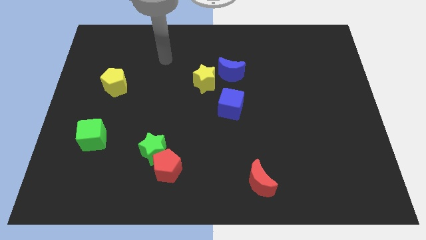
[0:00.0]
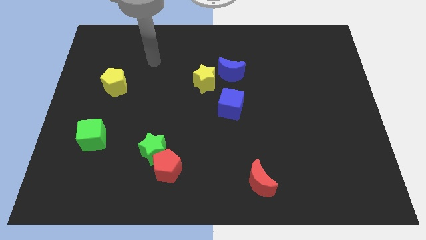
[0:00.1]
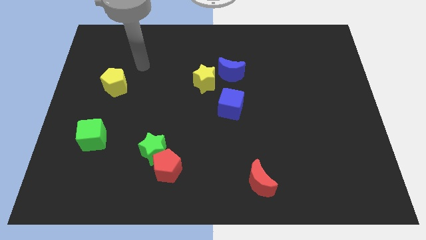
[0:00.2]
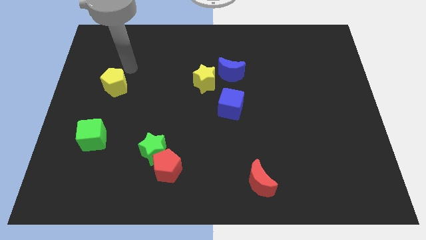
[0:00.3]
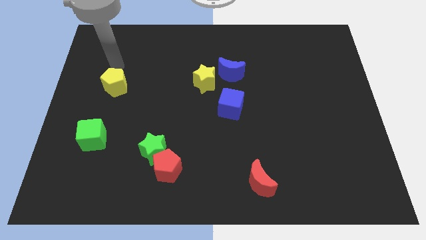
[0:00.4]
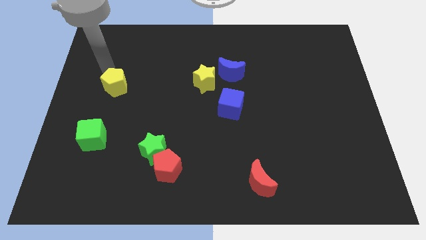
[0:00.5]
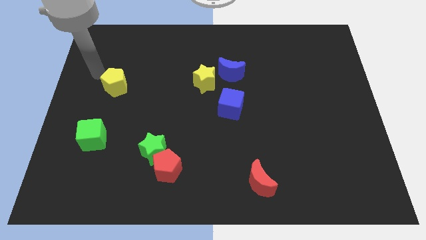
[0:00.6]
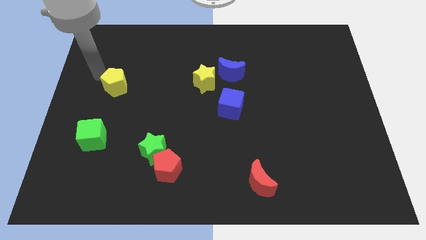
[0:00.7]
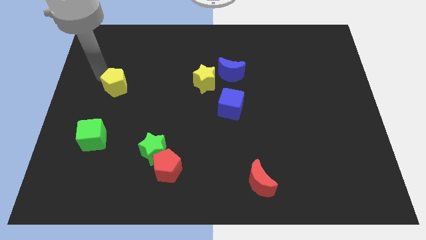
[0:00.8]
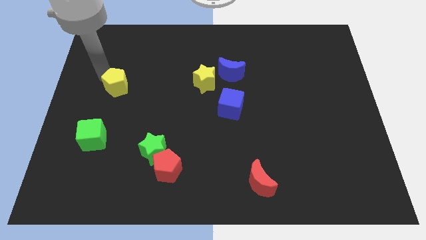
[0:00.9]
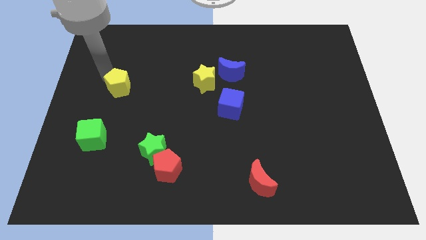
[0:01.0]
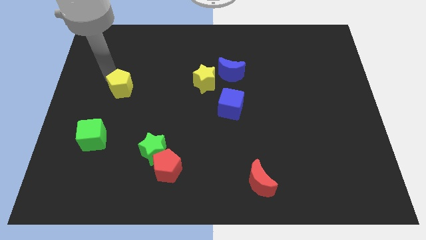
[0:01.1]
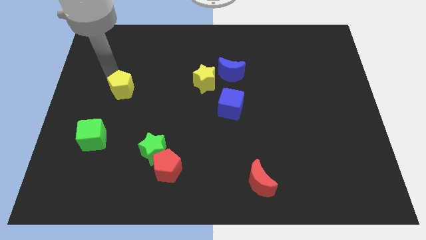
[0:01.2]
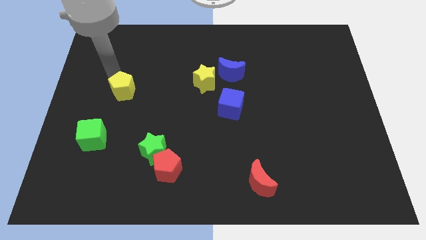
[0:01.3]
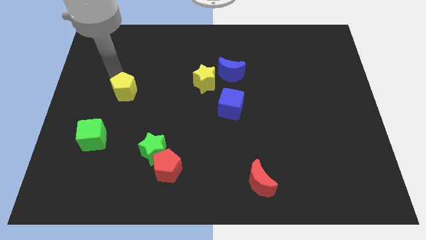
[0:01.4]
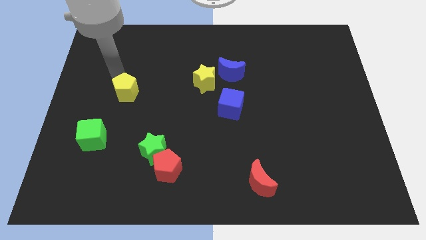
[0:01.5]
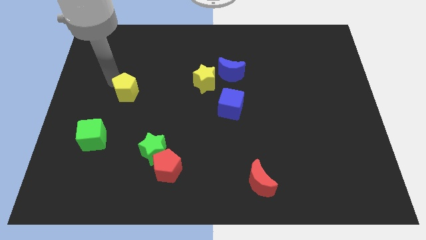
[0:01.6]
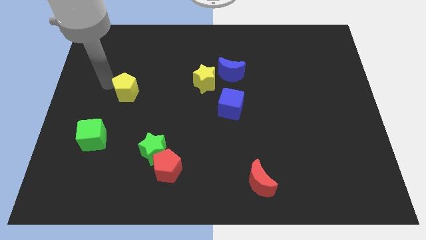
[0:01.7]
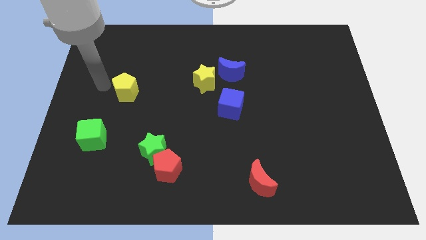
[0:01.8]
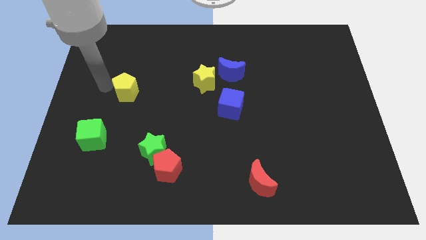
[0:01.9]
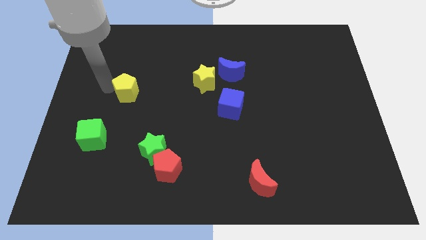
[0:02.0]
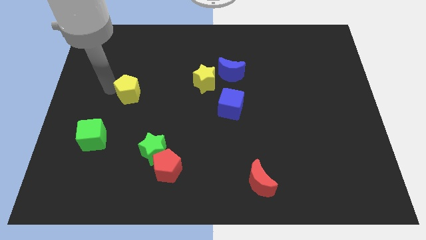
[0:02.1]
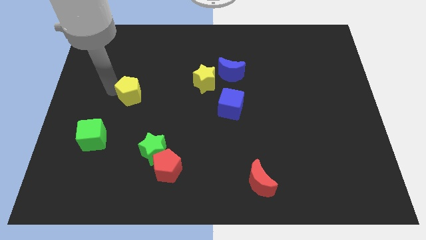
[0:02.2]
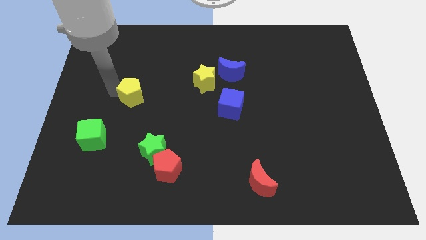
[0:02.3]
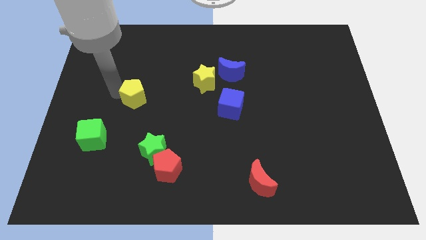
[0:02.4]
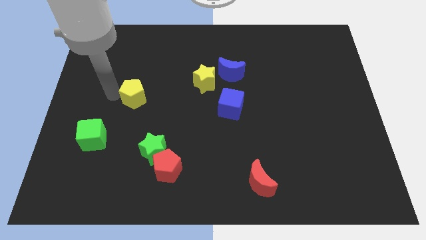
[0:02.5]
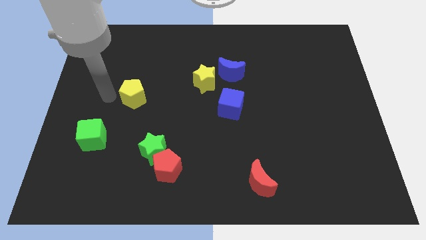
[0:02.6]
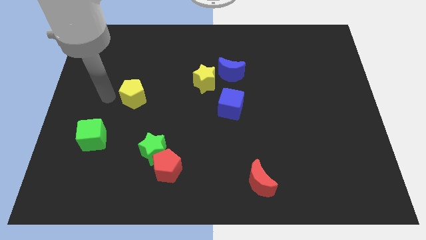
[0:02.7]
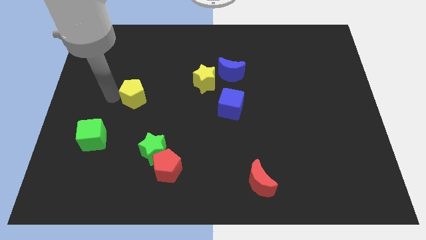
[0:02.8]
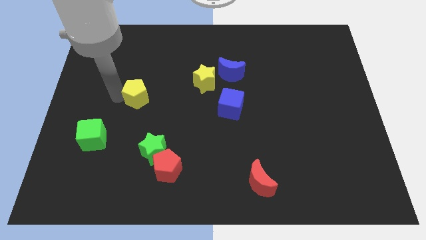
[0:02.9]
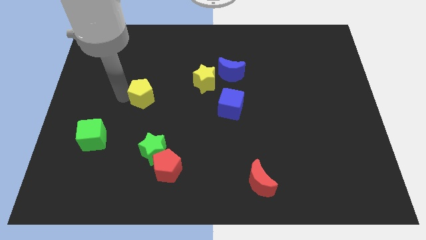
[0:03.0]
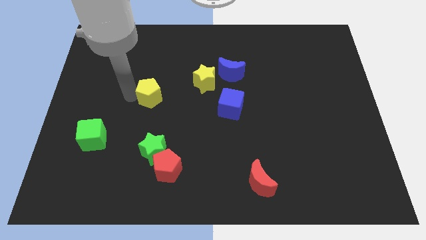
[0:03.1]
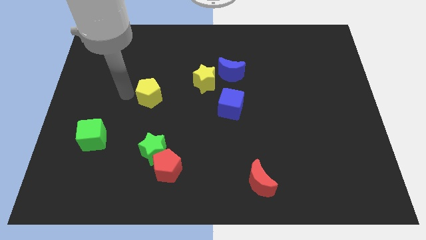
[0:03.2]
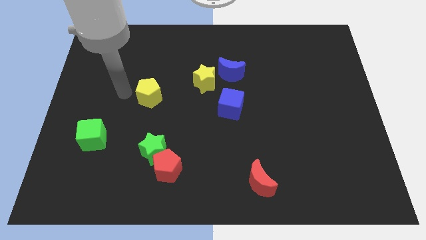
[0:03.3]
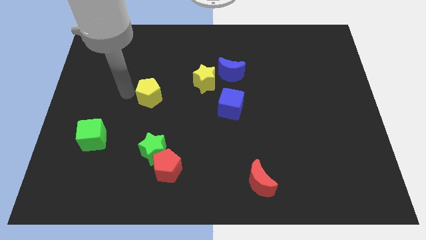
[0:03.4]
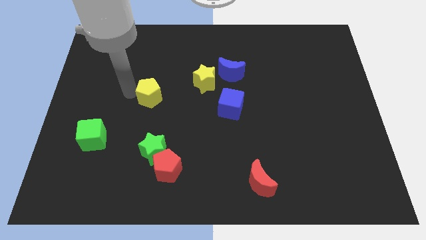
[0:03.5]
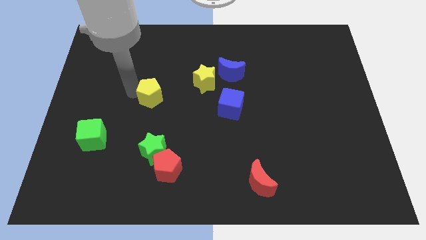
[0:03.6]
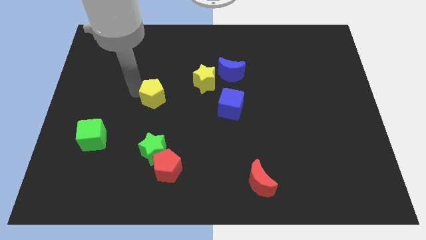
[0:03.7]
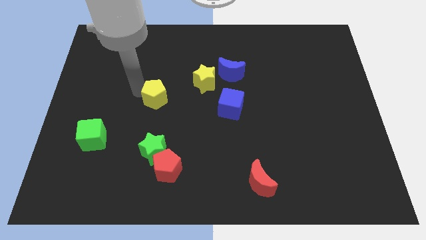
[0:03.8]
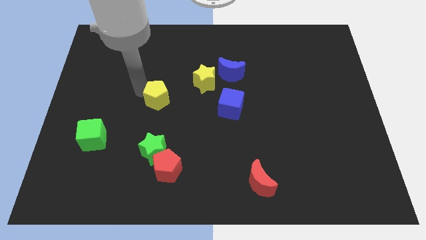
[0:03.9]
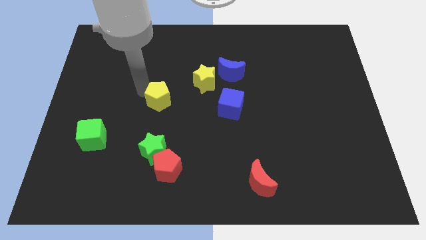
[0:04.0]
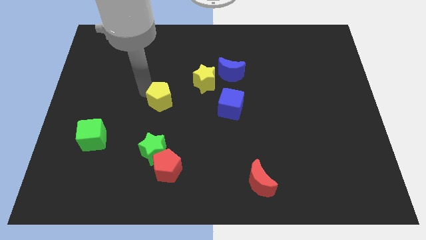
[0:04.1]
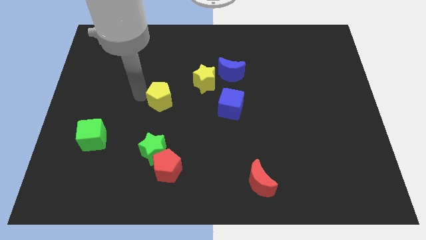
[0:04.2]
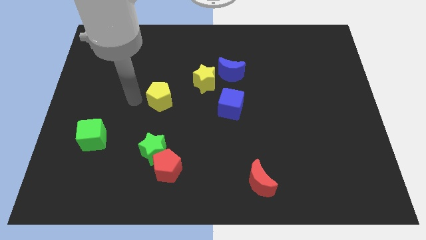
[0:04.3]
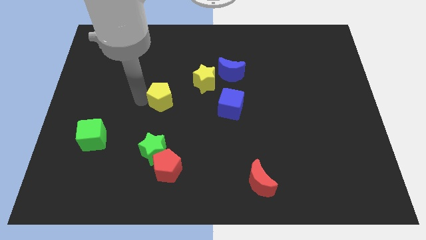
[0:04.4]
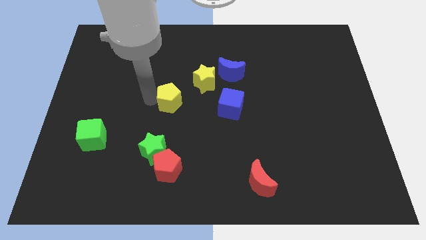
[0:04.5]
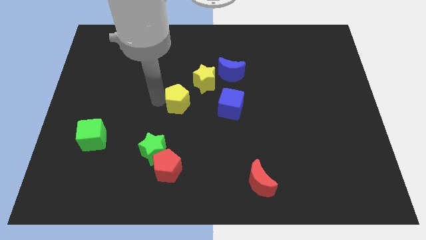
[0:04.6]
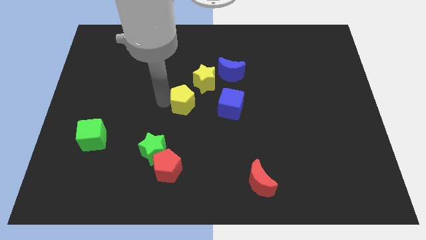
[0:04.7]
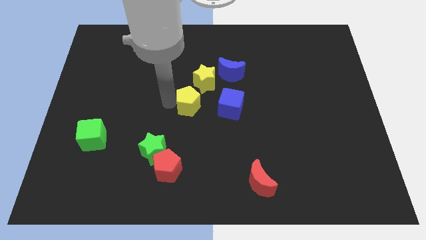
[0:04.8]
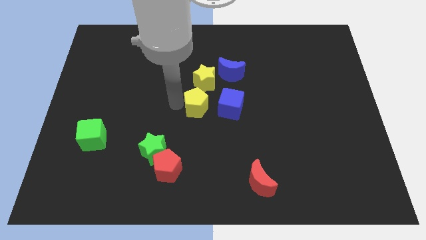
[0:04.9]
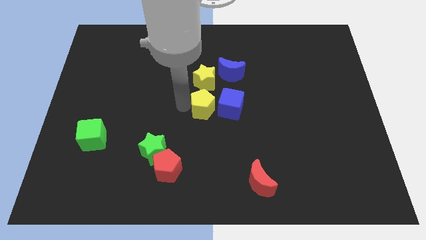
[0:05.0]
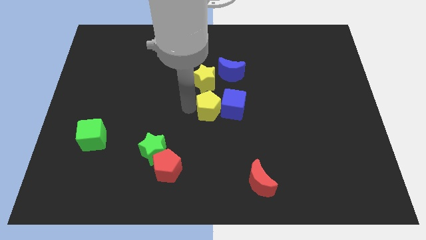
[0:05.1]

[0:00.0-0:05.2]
move the yellow pentagon to the right

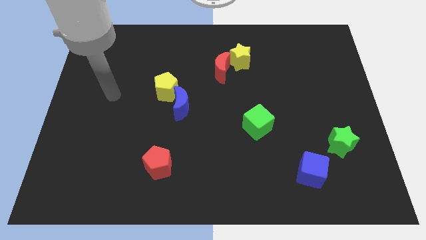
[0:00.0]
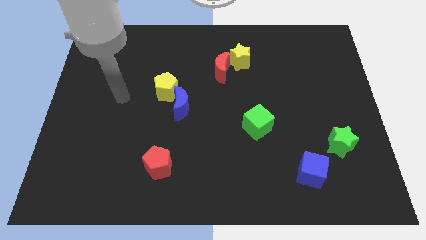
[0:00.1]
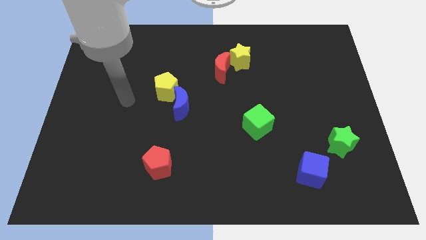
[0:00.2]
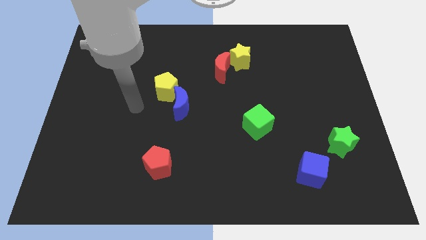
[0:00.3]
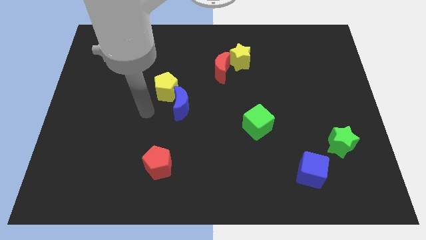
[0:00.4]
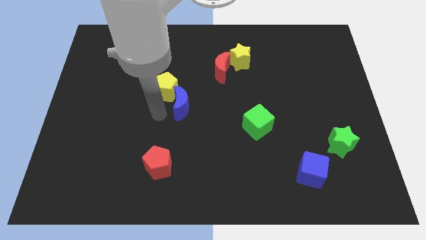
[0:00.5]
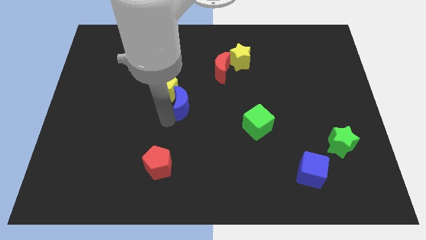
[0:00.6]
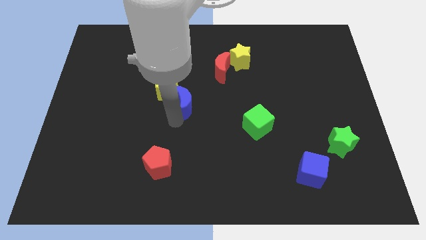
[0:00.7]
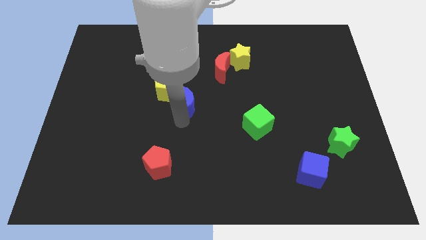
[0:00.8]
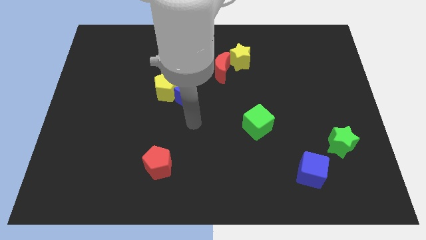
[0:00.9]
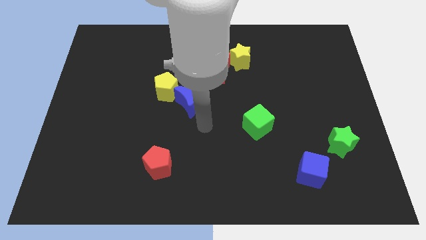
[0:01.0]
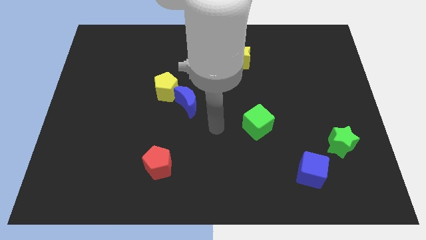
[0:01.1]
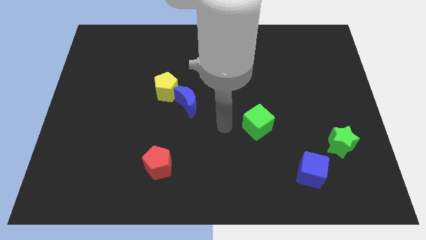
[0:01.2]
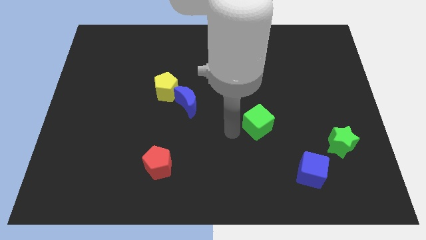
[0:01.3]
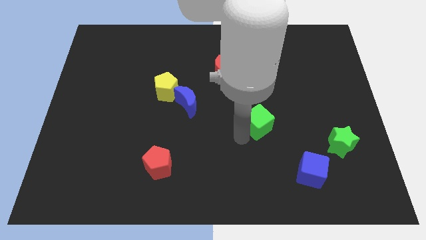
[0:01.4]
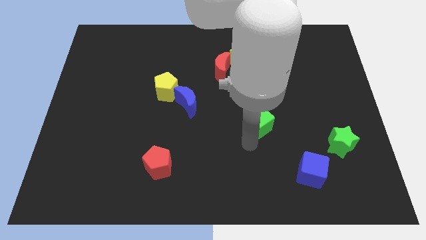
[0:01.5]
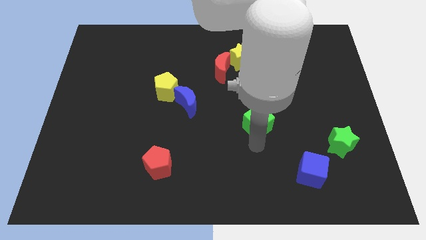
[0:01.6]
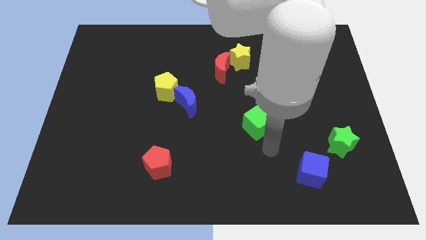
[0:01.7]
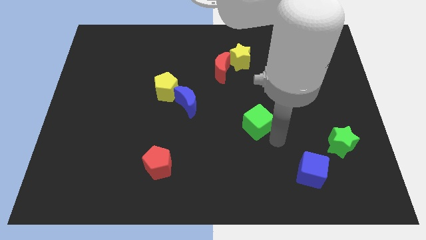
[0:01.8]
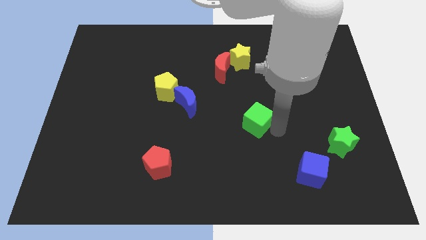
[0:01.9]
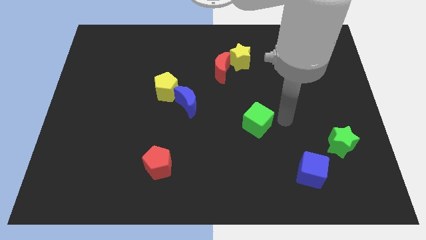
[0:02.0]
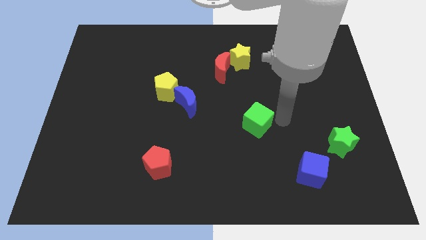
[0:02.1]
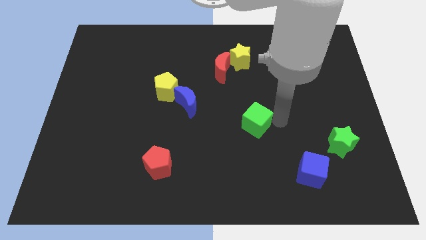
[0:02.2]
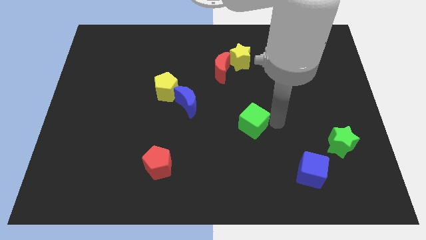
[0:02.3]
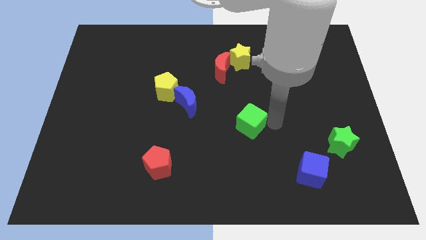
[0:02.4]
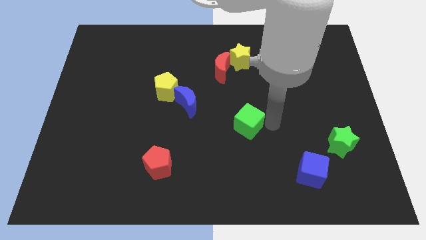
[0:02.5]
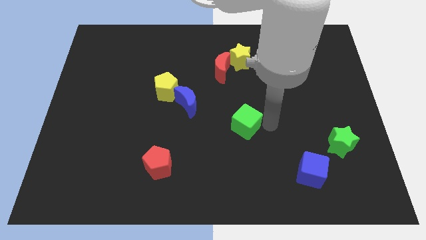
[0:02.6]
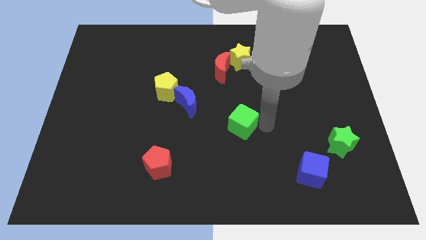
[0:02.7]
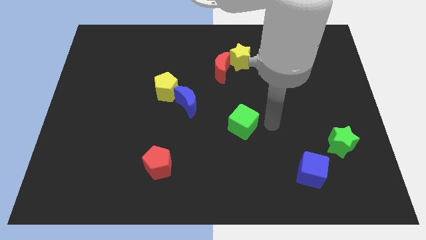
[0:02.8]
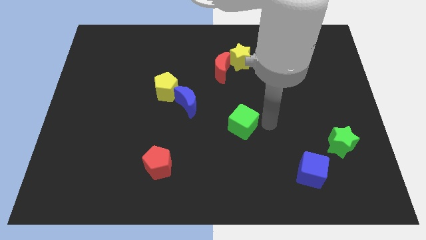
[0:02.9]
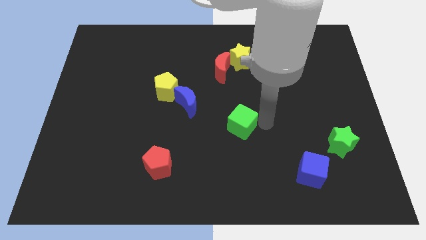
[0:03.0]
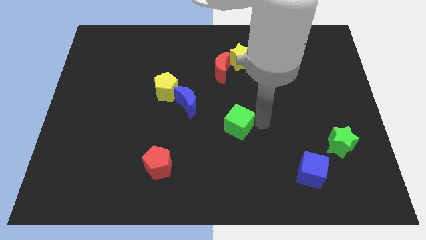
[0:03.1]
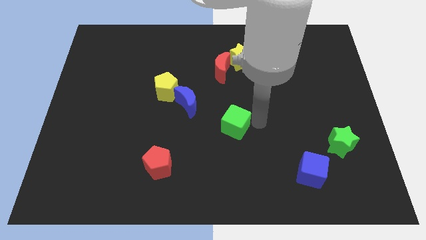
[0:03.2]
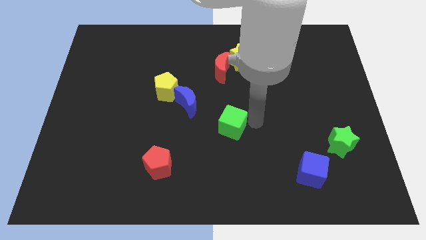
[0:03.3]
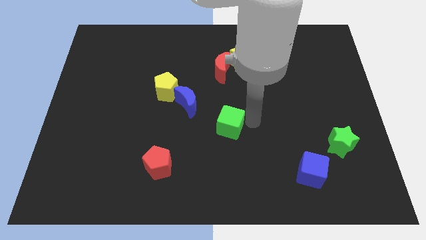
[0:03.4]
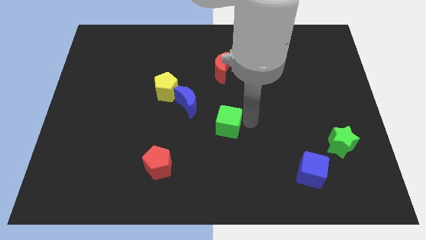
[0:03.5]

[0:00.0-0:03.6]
move the green cube to the left a bit
